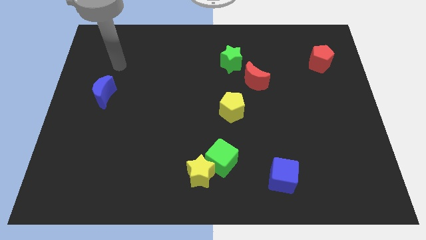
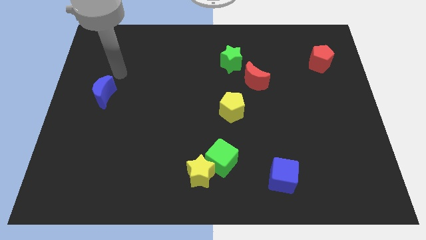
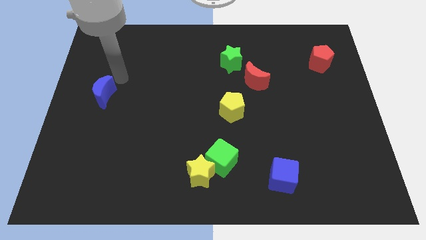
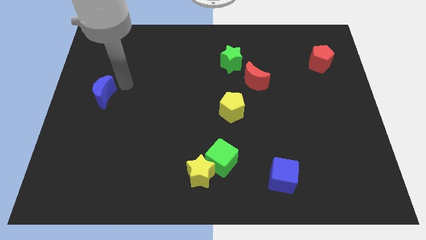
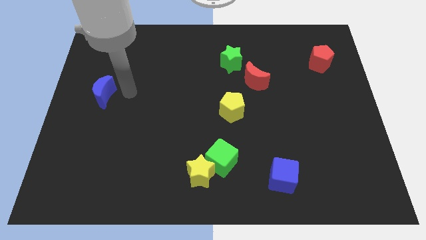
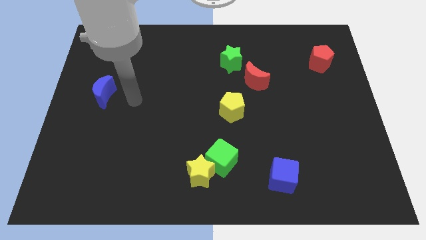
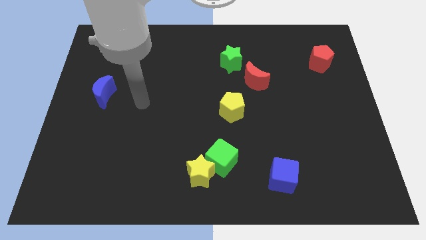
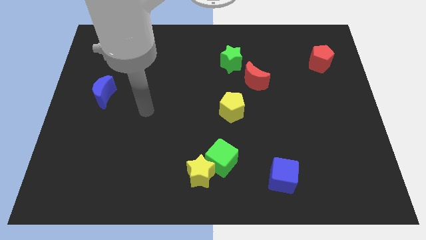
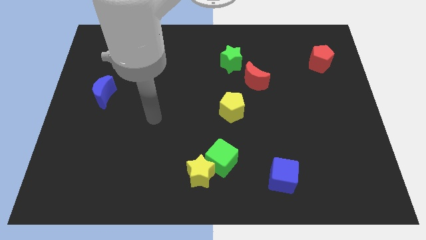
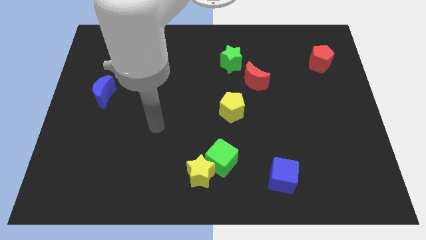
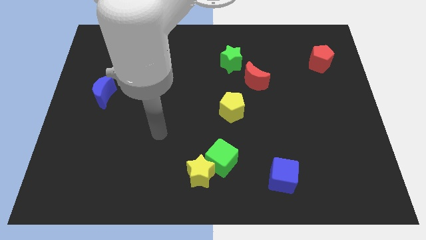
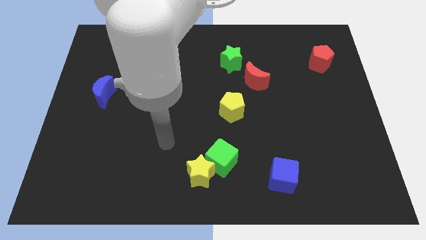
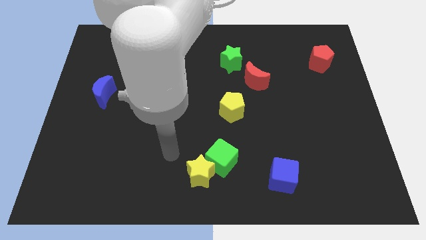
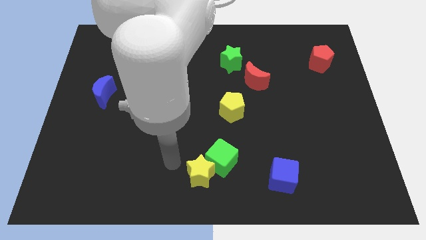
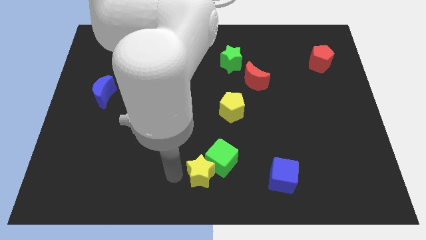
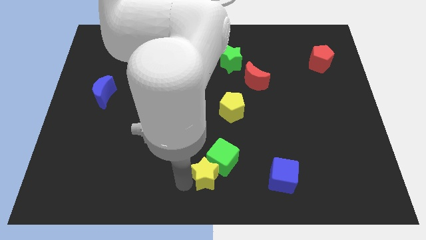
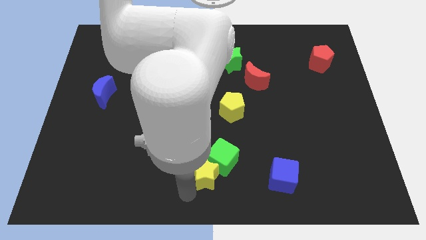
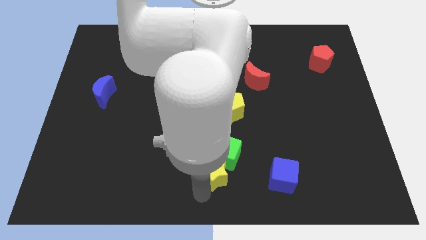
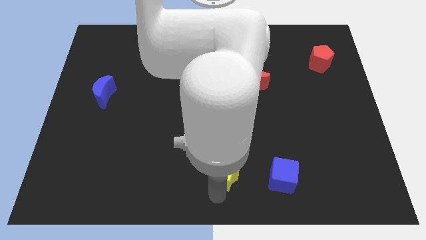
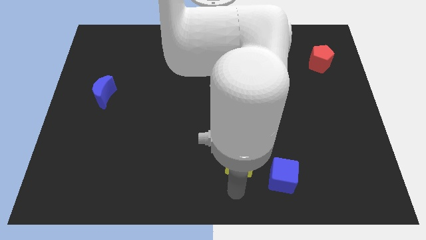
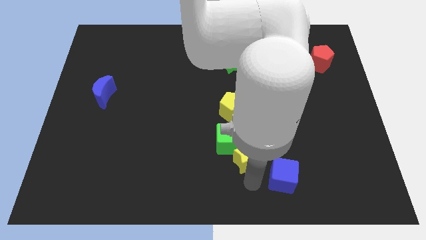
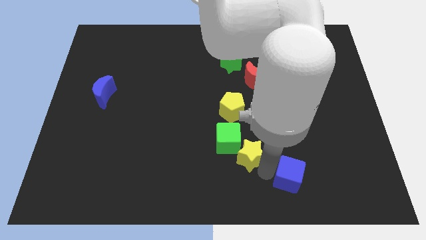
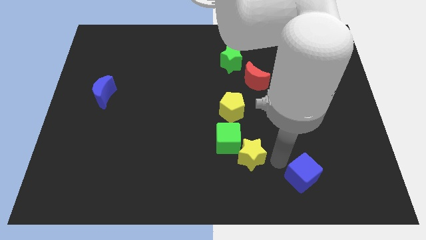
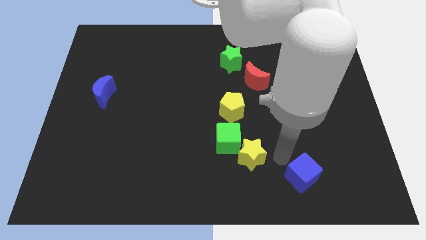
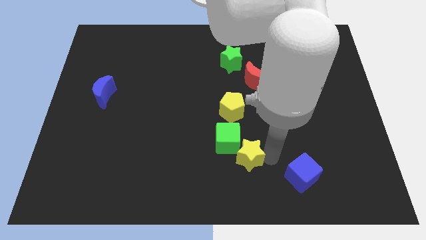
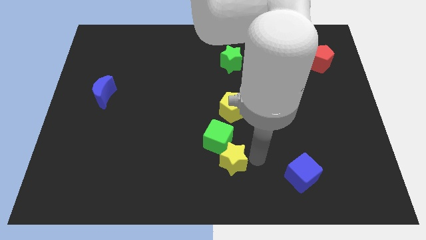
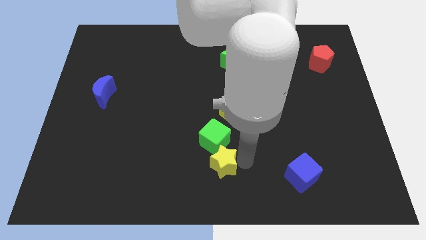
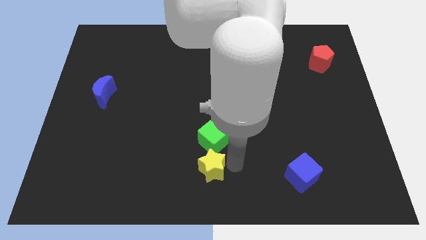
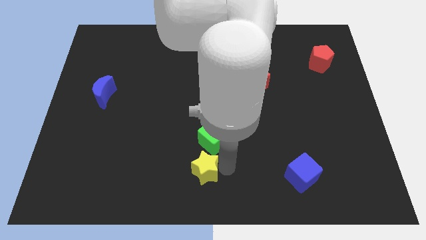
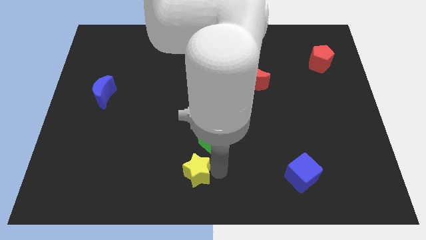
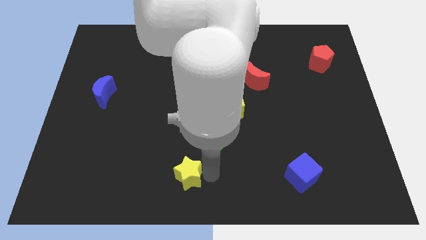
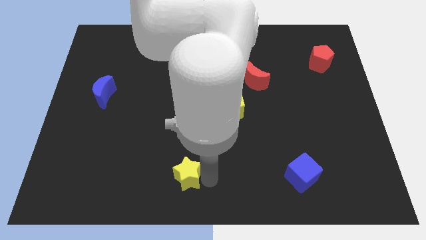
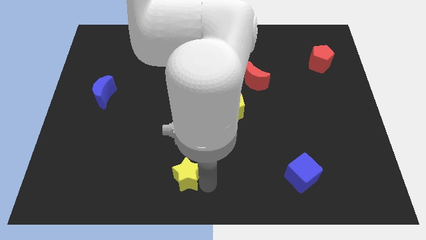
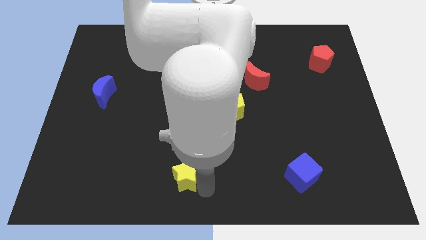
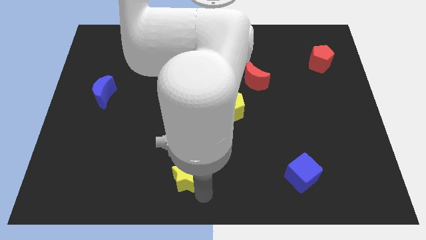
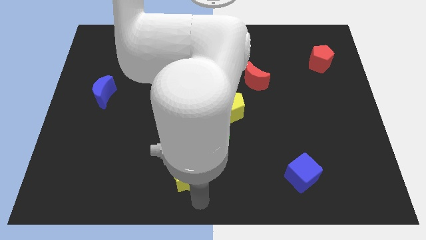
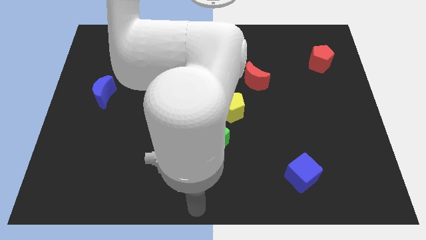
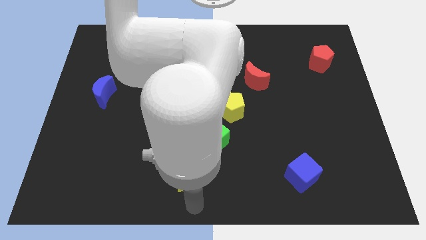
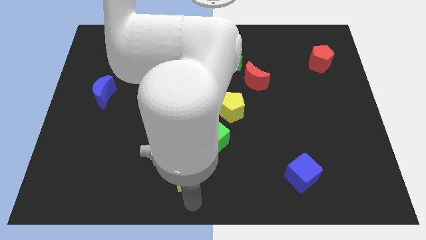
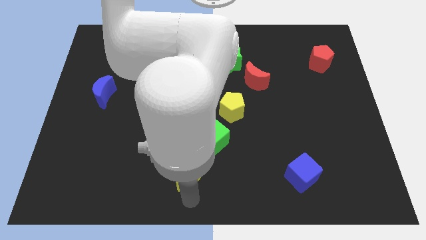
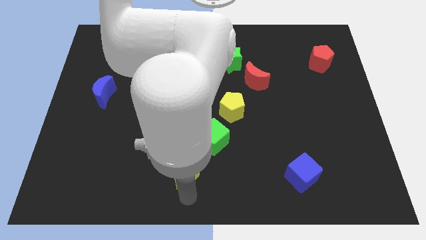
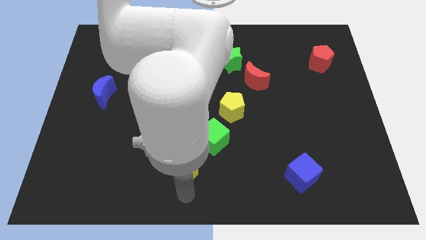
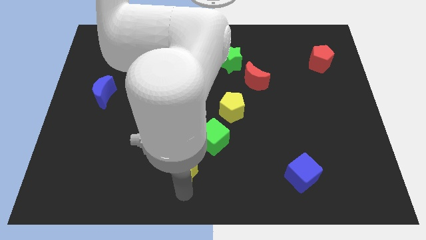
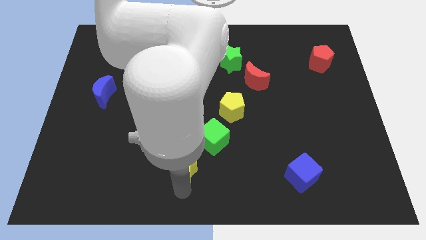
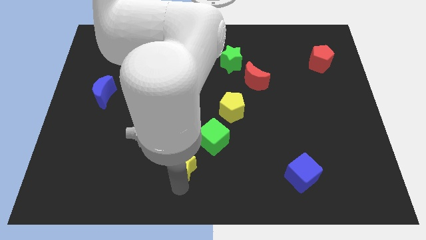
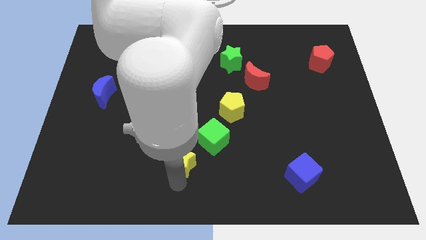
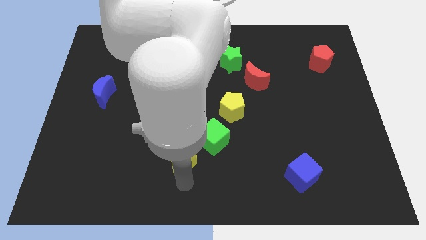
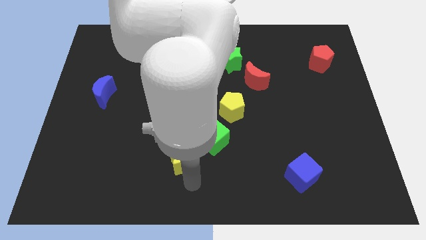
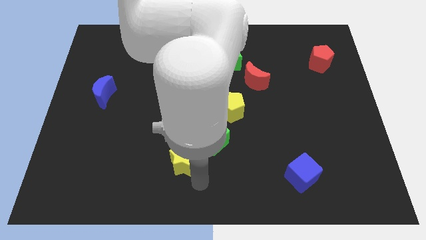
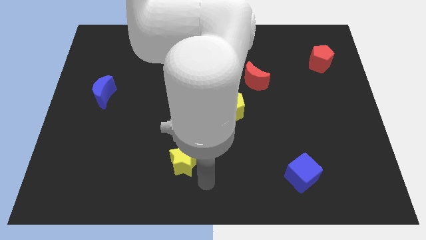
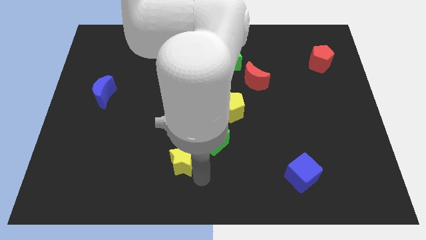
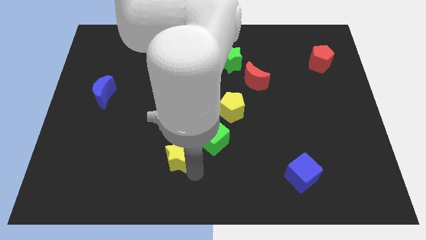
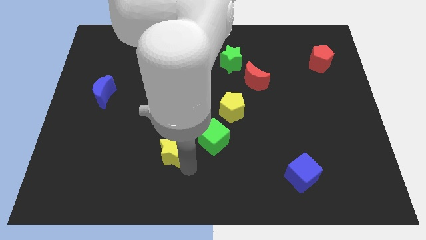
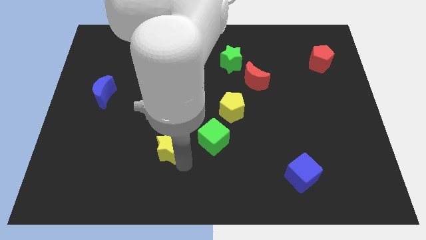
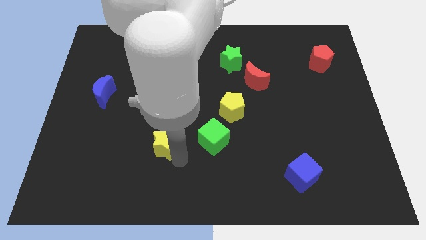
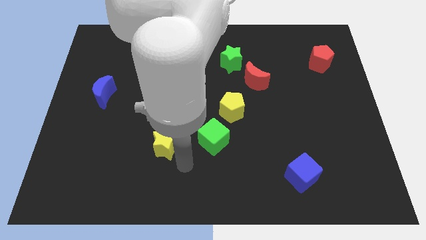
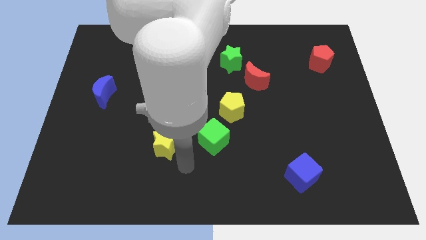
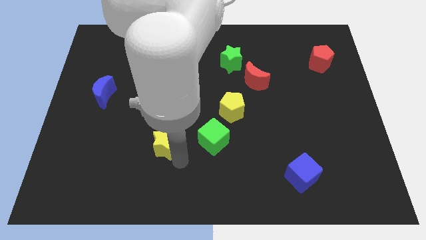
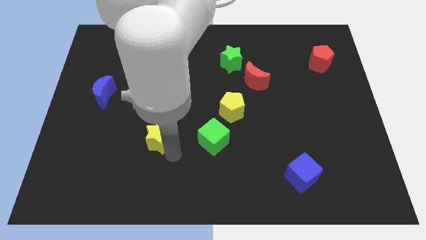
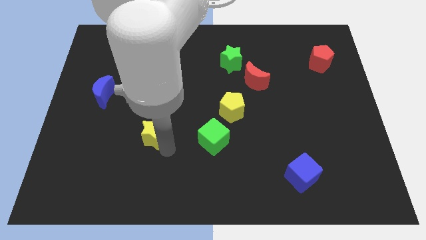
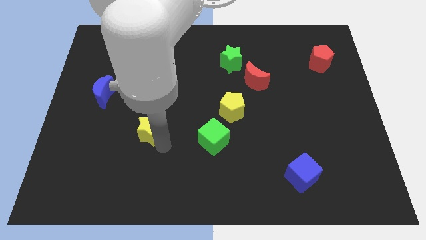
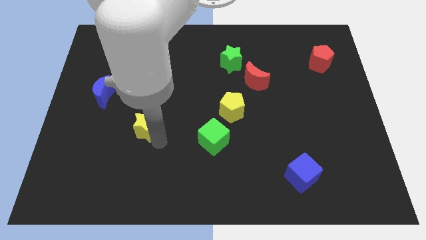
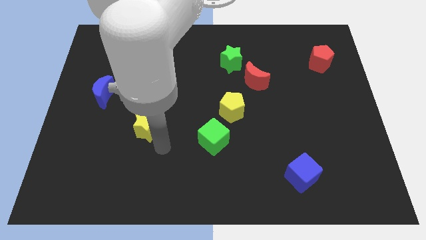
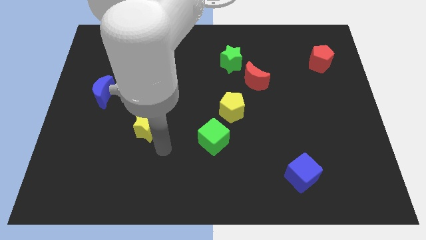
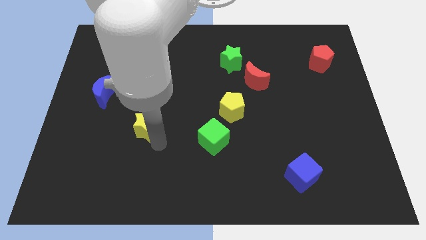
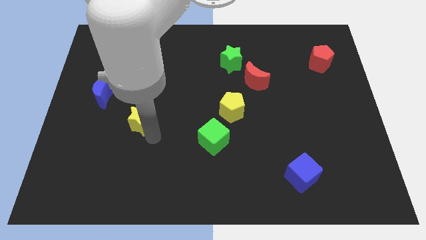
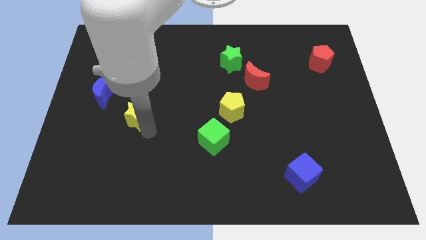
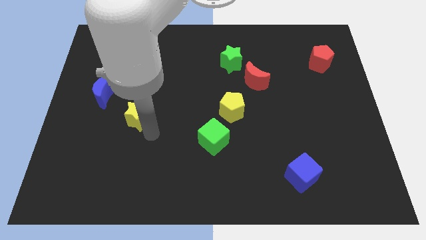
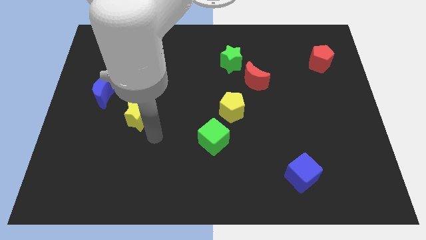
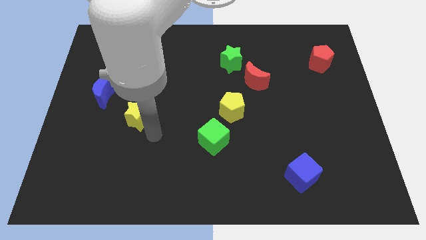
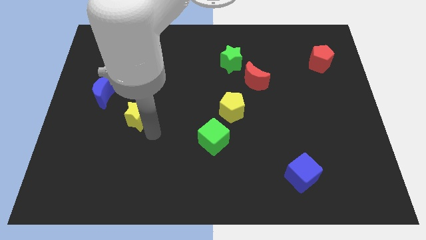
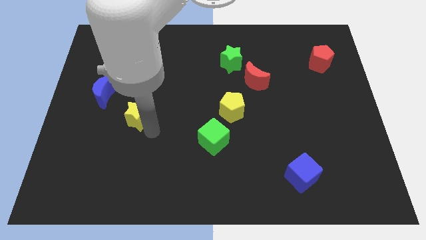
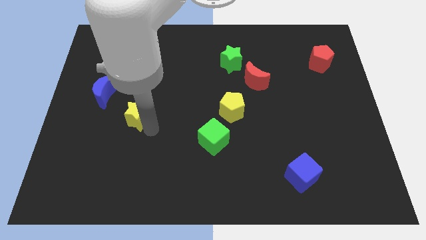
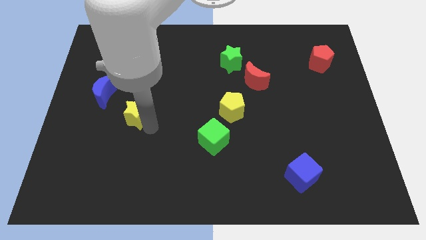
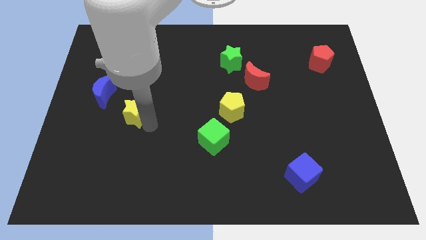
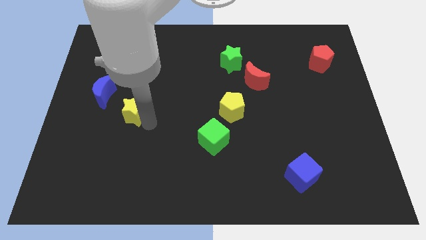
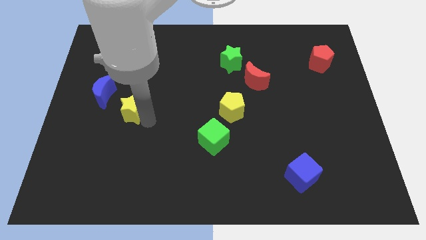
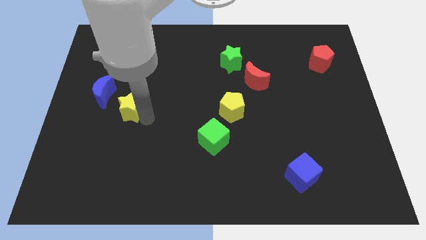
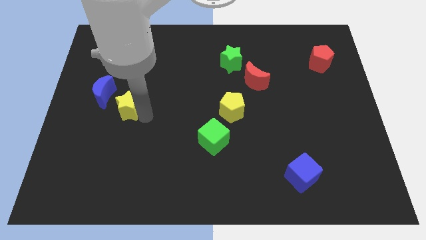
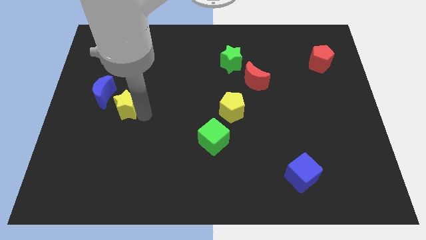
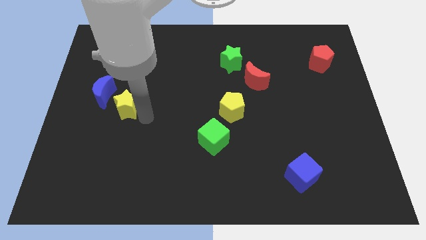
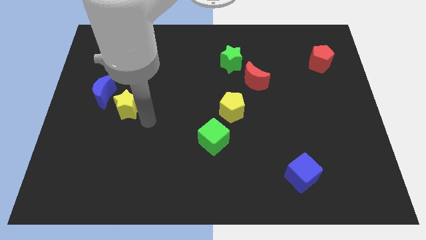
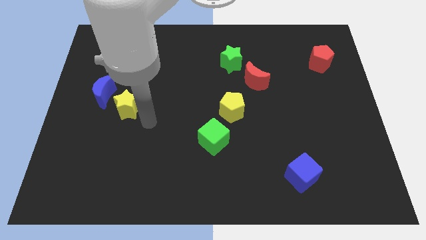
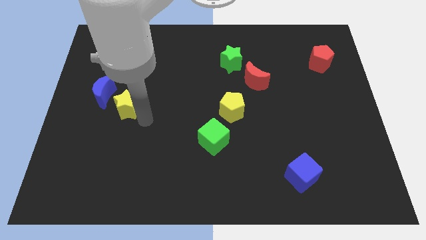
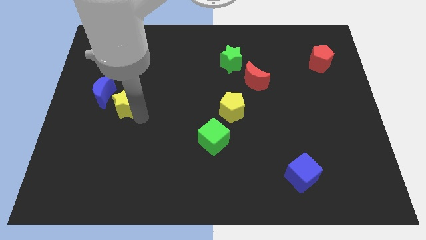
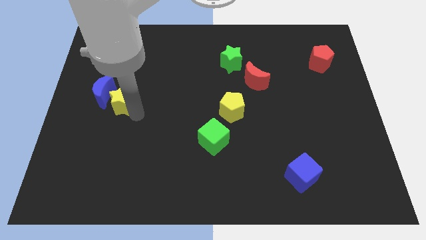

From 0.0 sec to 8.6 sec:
put the yellow star towards the blue moon
